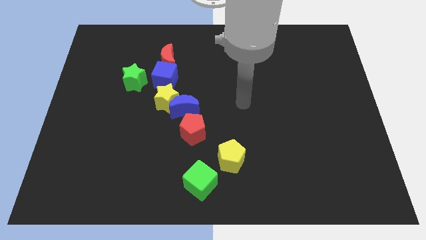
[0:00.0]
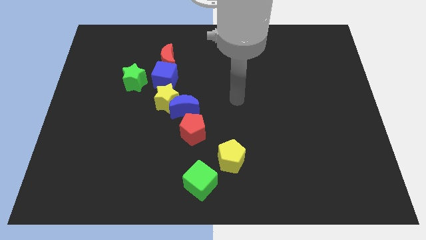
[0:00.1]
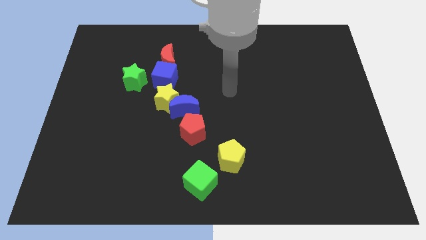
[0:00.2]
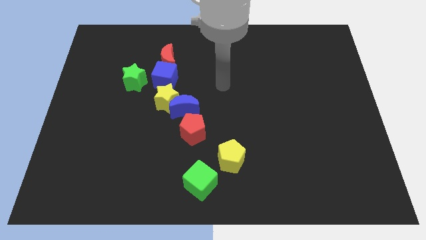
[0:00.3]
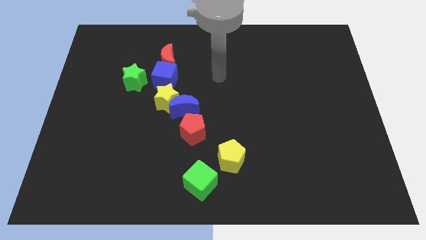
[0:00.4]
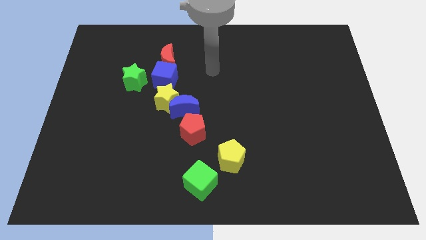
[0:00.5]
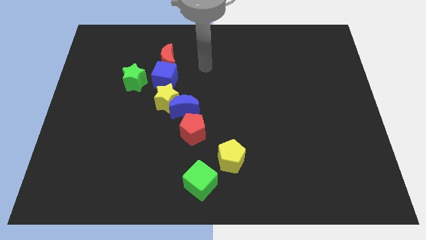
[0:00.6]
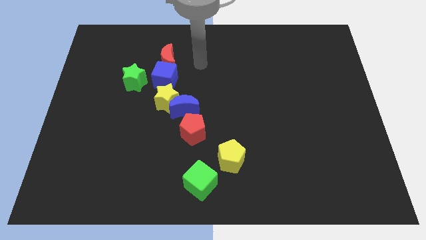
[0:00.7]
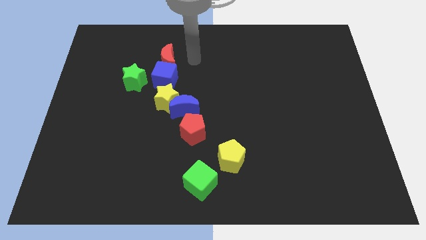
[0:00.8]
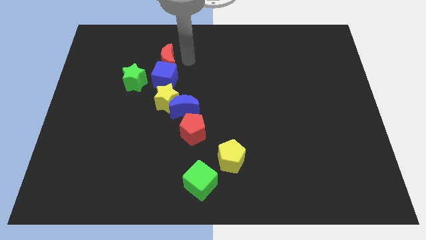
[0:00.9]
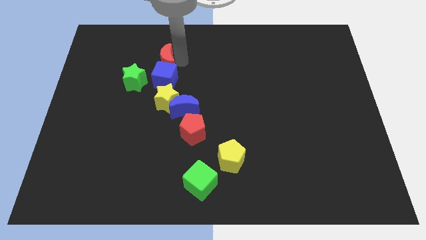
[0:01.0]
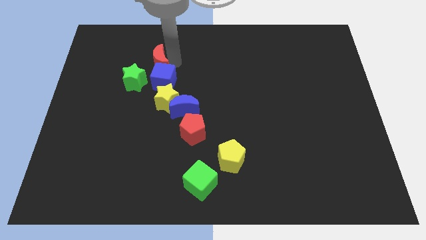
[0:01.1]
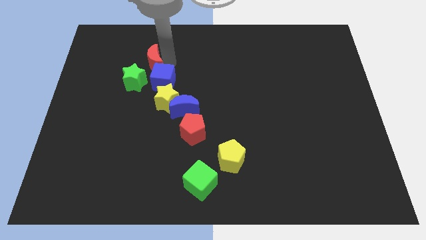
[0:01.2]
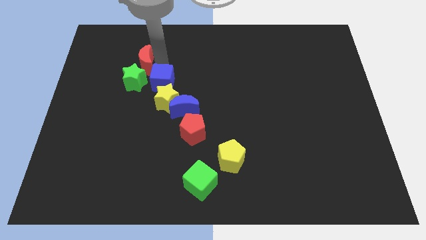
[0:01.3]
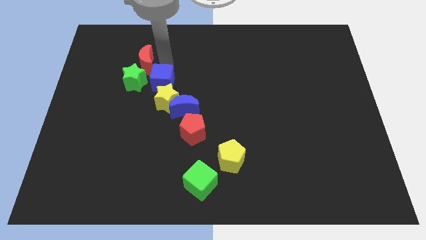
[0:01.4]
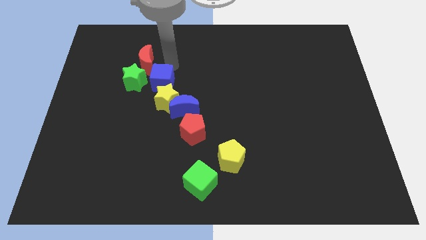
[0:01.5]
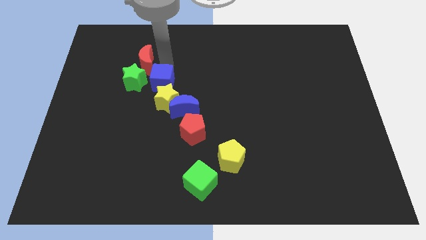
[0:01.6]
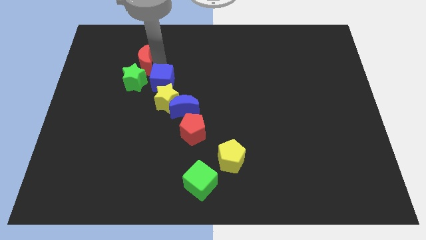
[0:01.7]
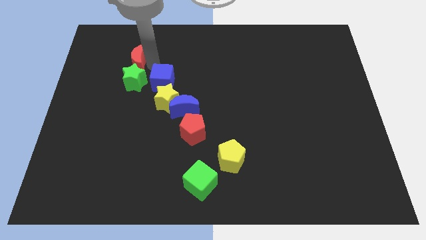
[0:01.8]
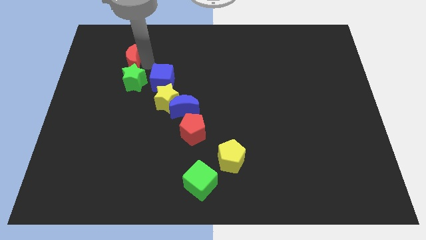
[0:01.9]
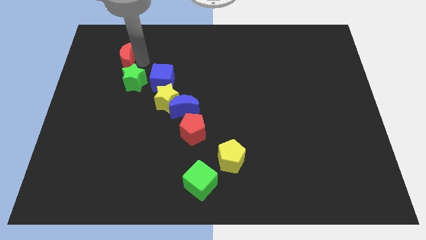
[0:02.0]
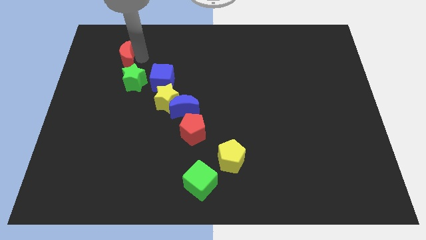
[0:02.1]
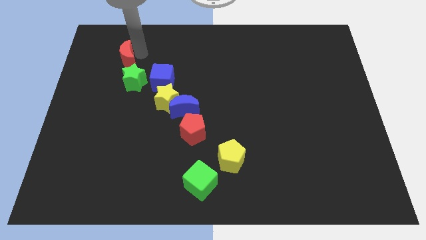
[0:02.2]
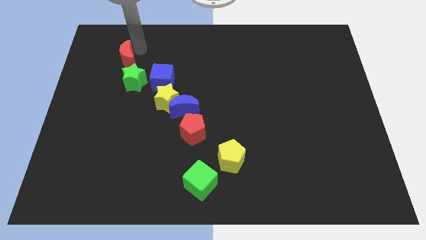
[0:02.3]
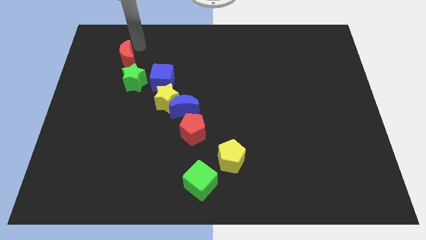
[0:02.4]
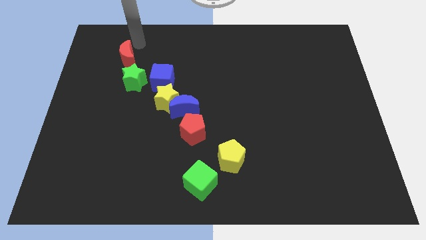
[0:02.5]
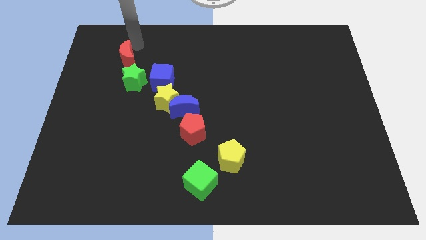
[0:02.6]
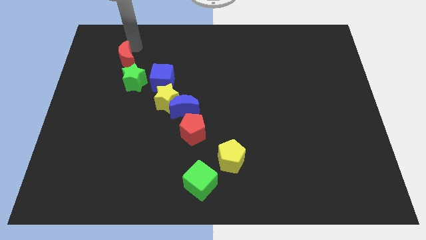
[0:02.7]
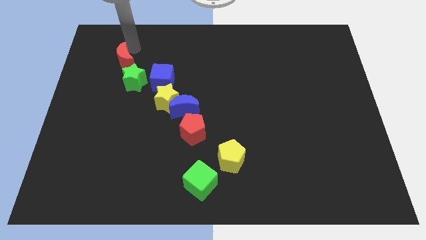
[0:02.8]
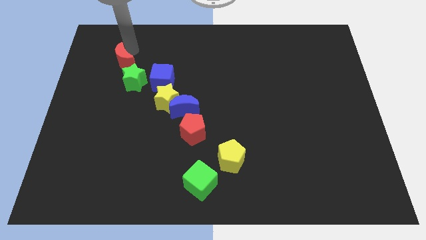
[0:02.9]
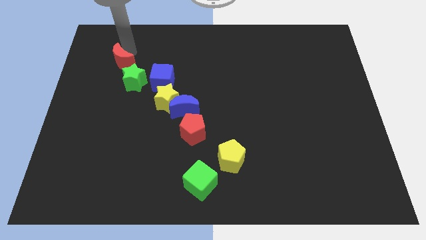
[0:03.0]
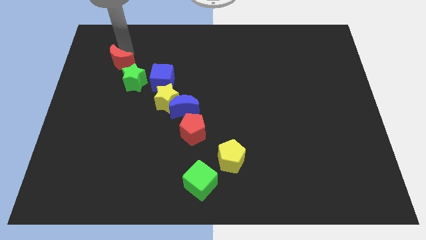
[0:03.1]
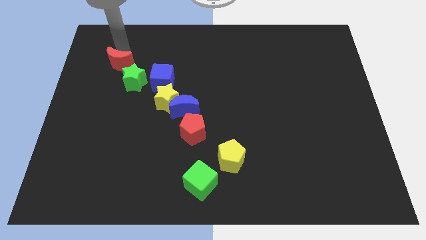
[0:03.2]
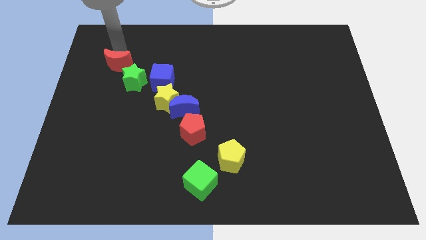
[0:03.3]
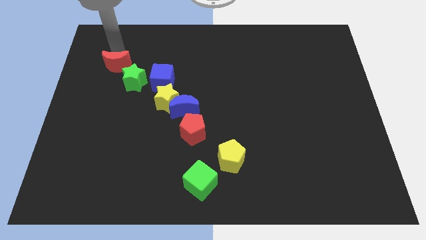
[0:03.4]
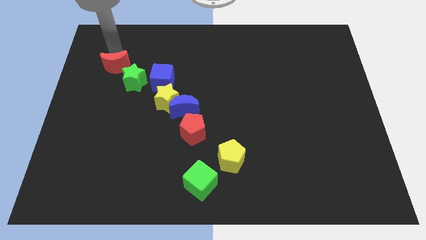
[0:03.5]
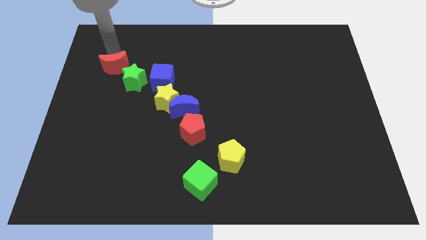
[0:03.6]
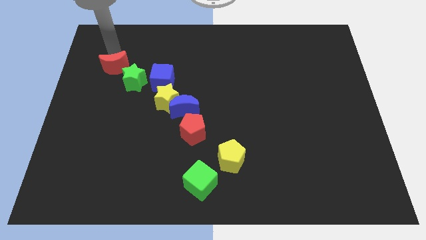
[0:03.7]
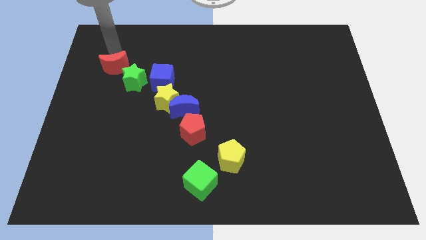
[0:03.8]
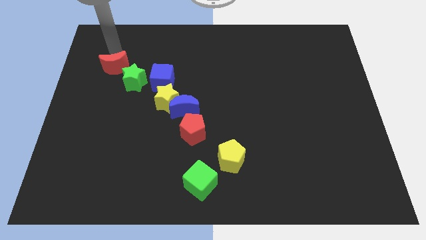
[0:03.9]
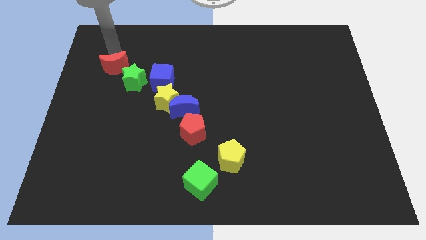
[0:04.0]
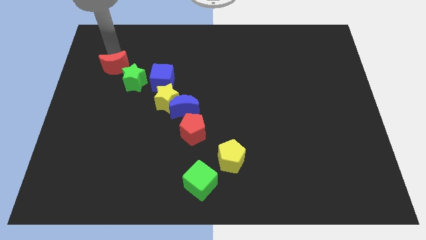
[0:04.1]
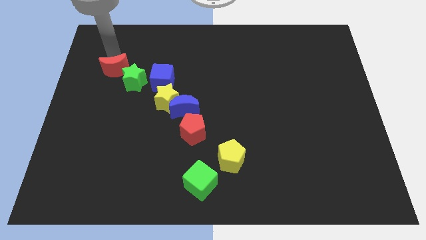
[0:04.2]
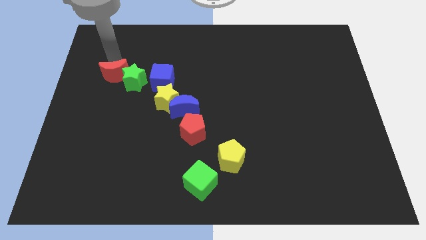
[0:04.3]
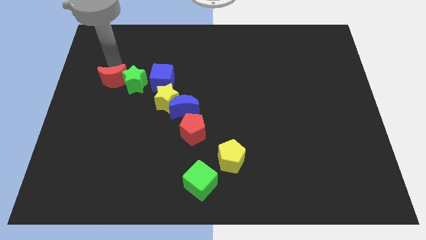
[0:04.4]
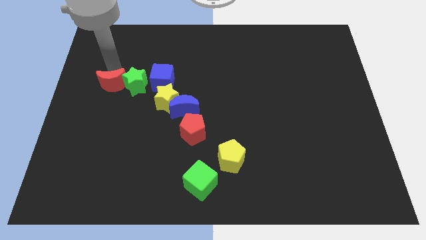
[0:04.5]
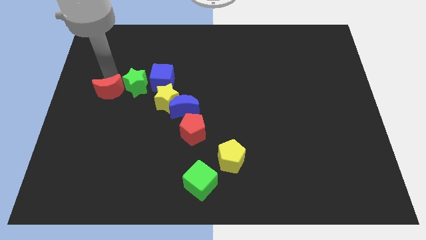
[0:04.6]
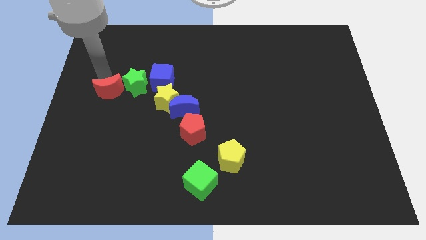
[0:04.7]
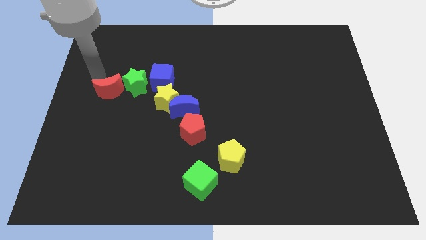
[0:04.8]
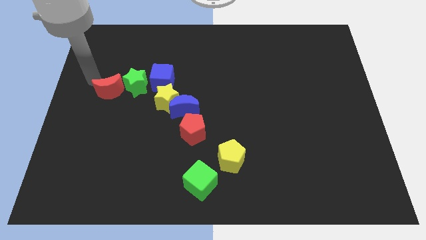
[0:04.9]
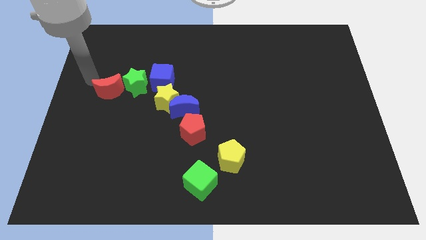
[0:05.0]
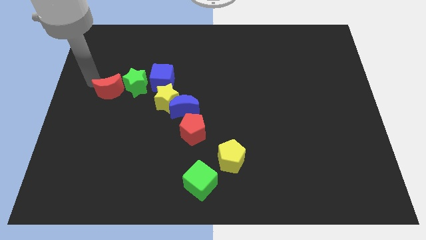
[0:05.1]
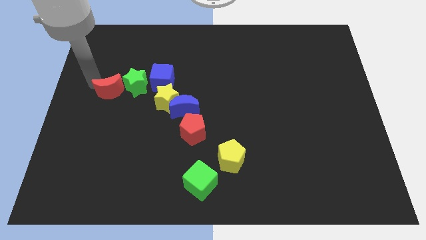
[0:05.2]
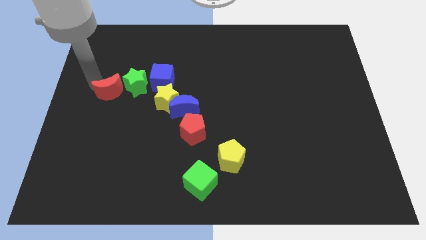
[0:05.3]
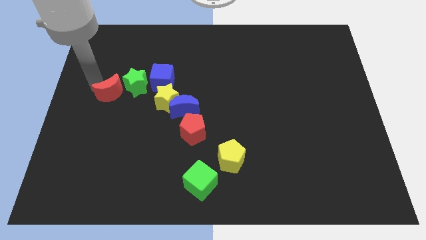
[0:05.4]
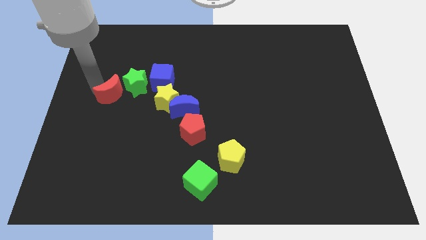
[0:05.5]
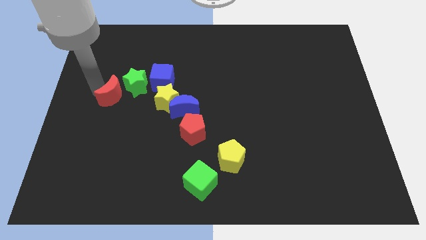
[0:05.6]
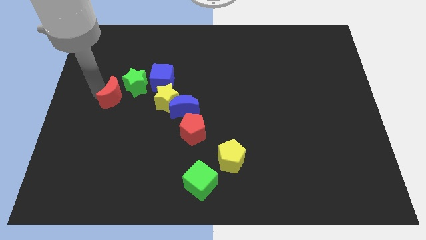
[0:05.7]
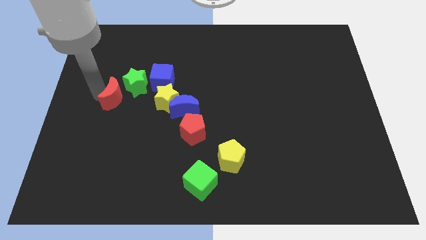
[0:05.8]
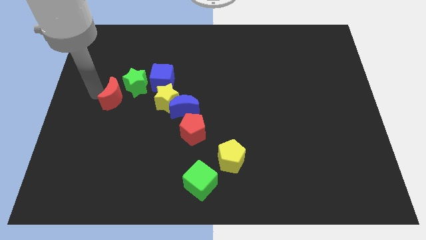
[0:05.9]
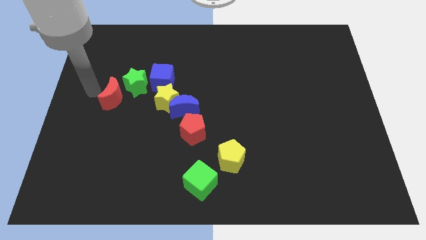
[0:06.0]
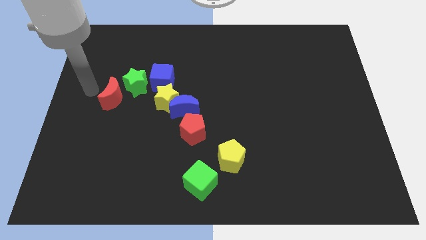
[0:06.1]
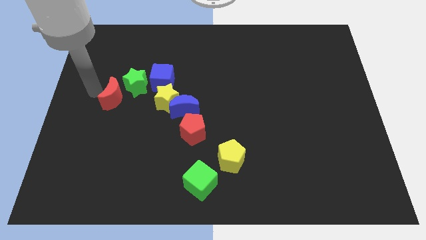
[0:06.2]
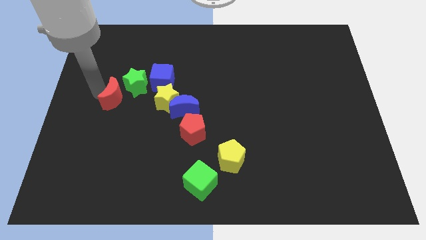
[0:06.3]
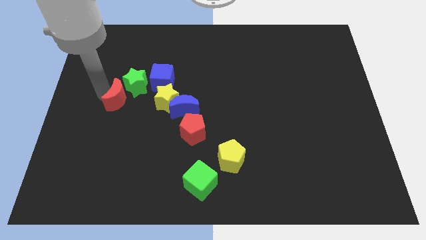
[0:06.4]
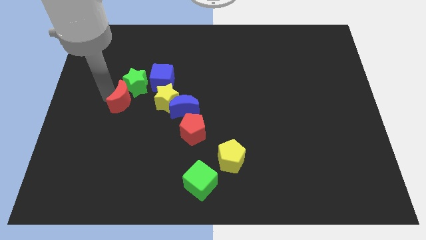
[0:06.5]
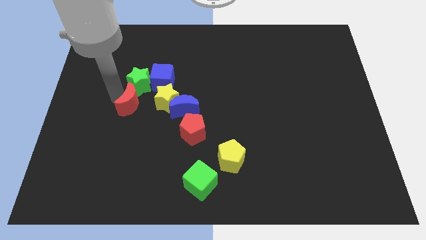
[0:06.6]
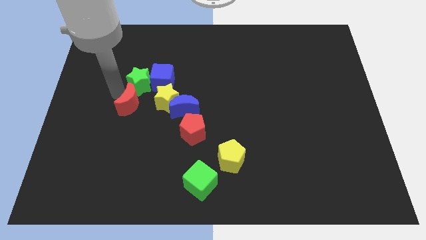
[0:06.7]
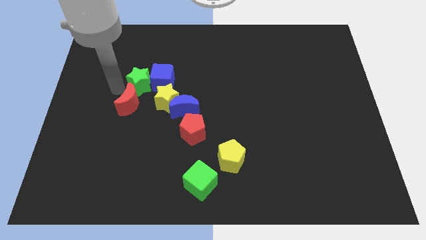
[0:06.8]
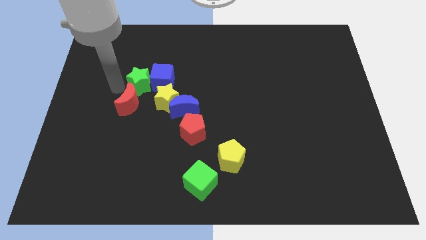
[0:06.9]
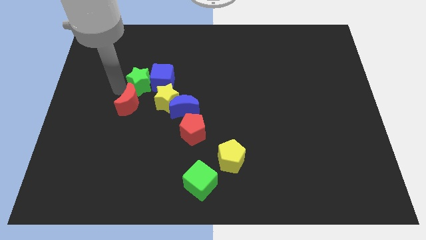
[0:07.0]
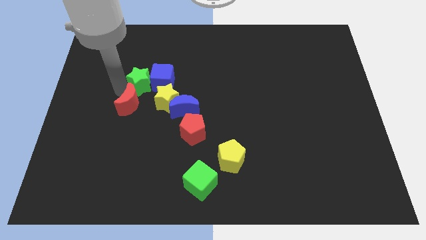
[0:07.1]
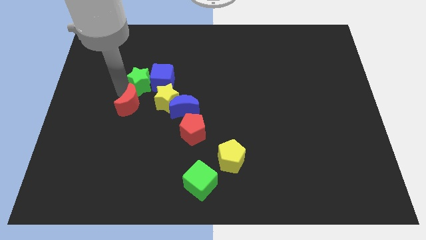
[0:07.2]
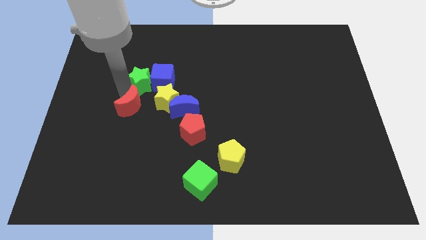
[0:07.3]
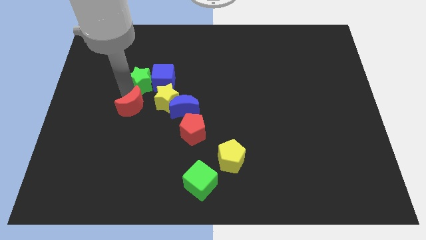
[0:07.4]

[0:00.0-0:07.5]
slide the red moon diagonally down and to the left of the yellow star
